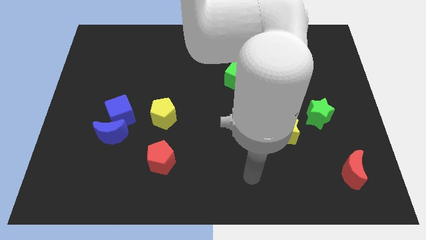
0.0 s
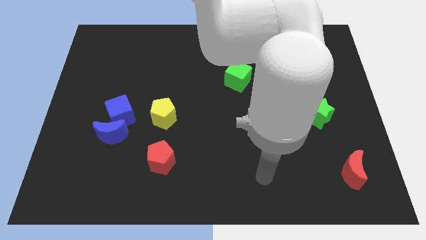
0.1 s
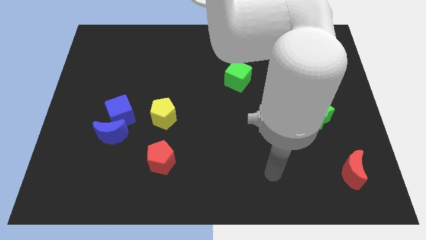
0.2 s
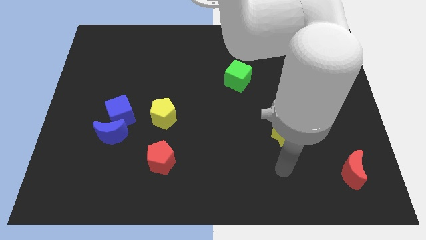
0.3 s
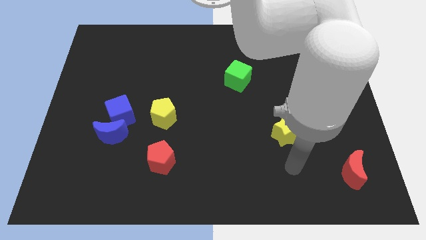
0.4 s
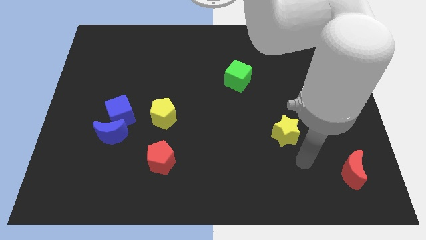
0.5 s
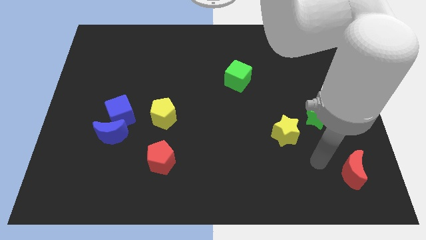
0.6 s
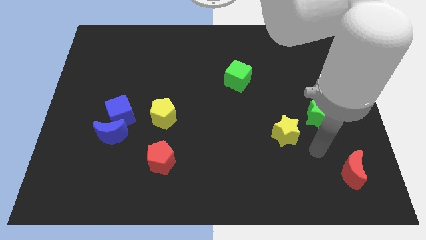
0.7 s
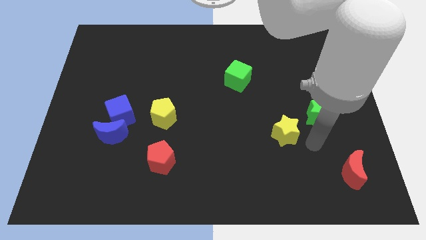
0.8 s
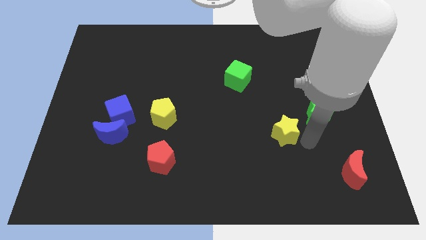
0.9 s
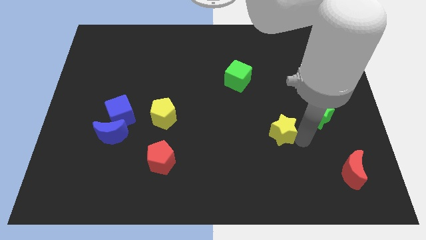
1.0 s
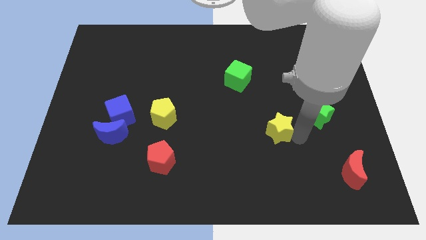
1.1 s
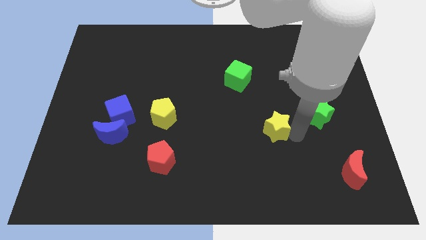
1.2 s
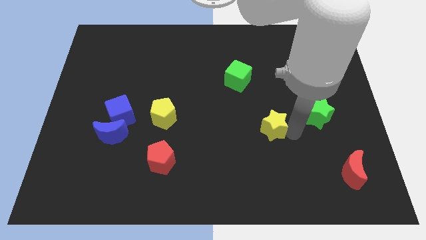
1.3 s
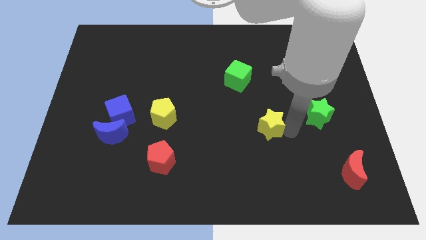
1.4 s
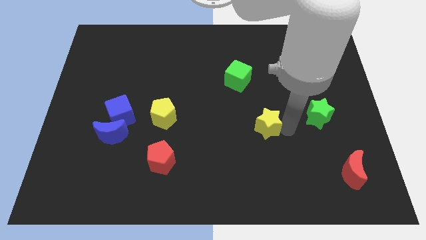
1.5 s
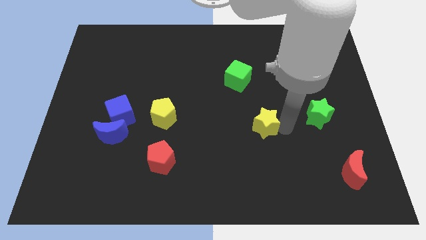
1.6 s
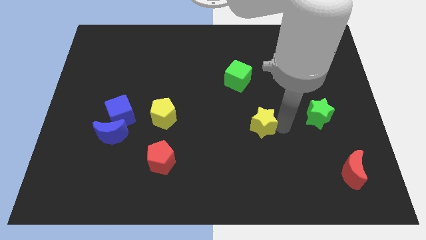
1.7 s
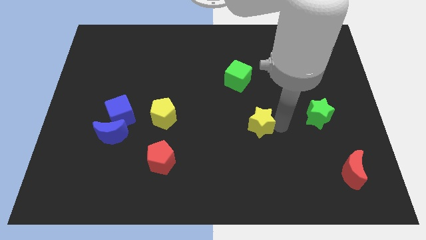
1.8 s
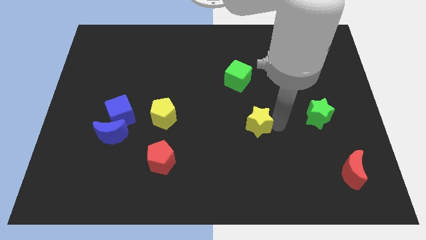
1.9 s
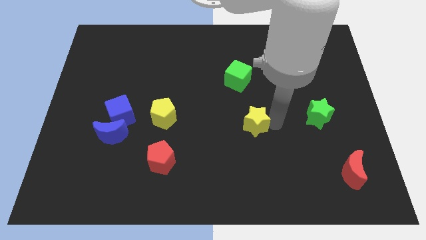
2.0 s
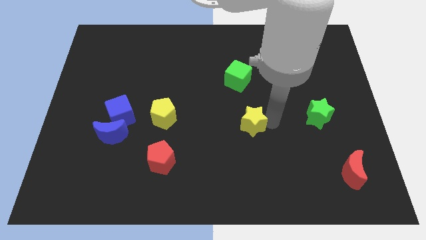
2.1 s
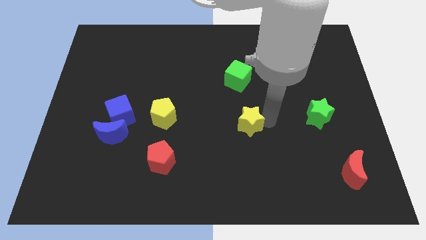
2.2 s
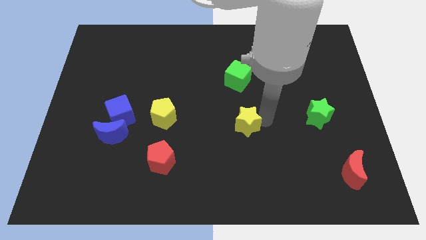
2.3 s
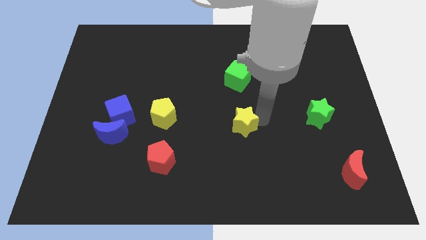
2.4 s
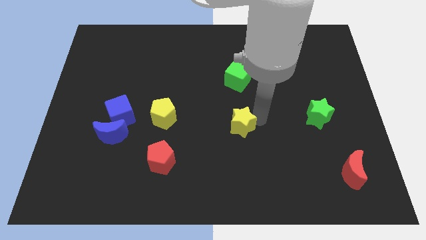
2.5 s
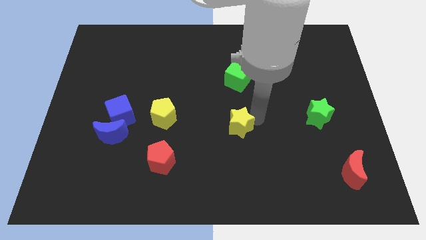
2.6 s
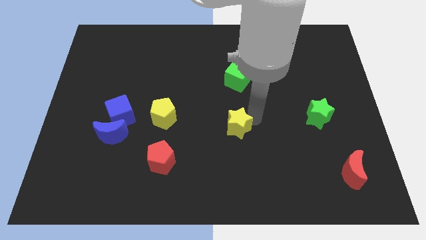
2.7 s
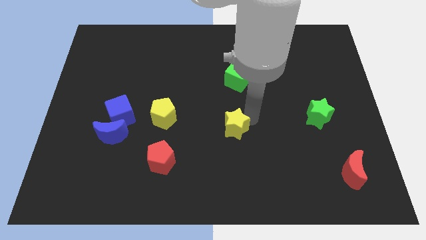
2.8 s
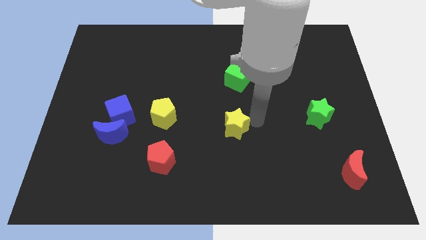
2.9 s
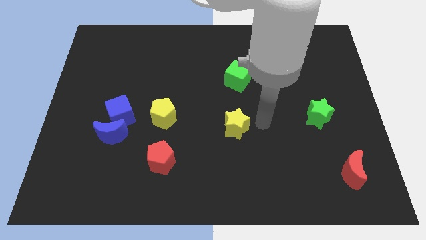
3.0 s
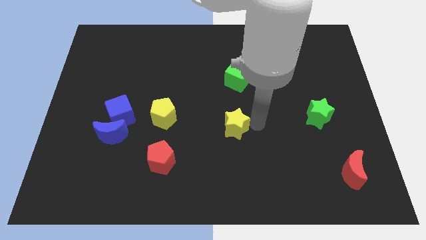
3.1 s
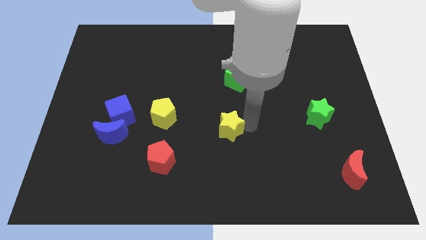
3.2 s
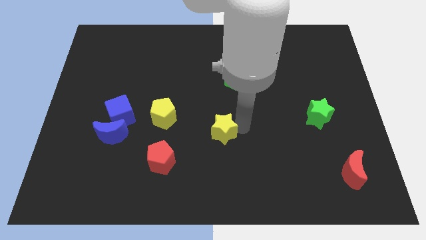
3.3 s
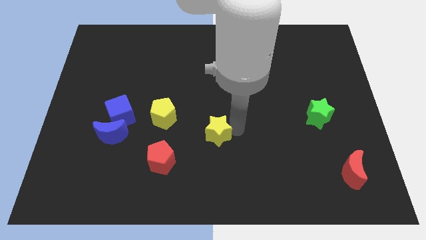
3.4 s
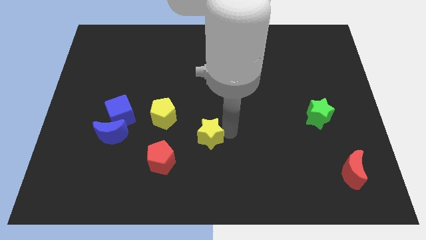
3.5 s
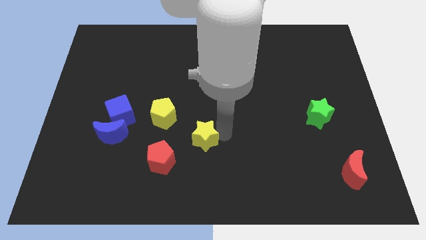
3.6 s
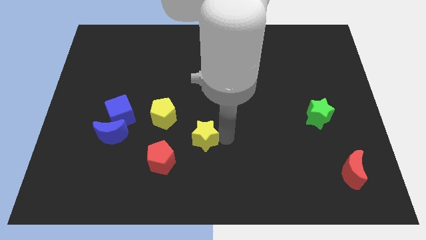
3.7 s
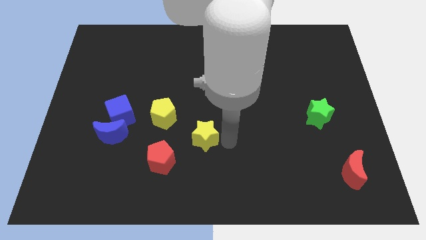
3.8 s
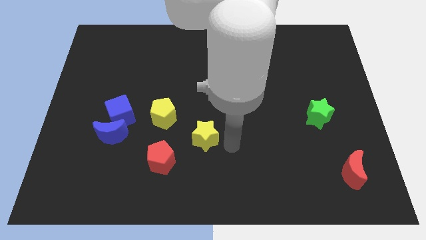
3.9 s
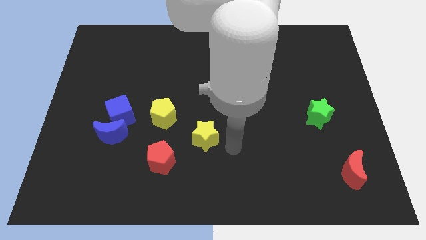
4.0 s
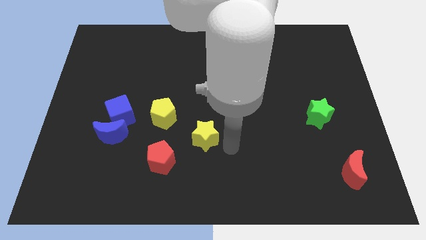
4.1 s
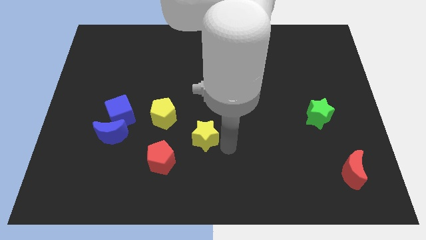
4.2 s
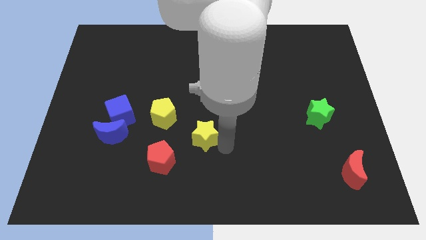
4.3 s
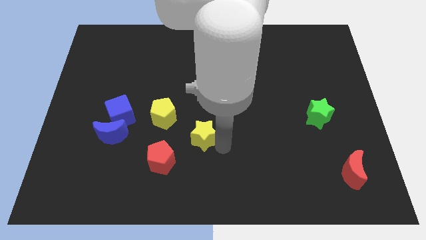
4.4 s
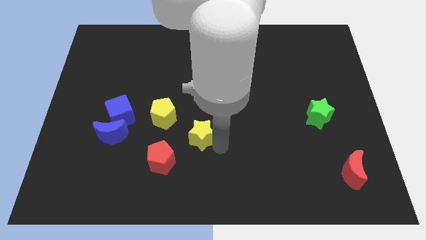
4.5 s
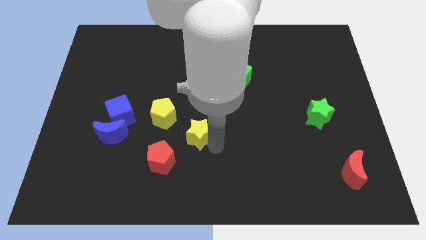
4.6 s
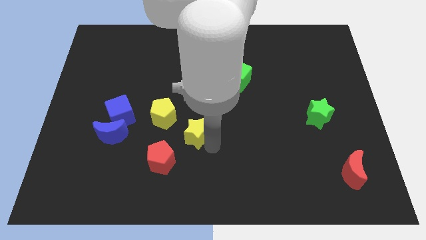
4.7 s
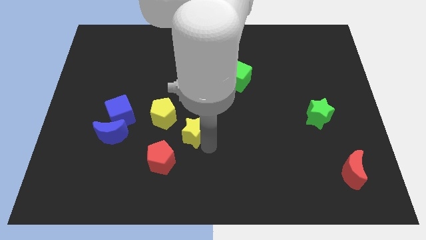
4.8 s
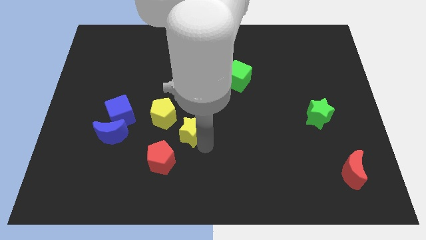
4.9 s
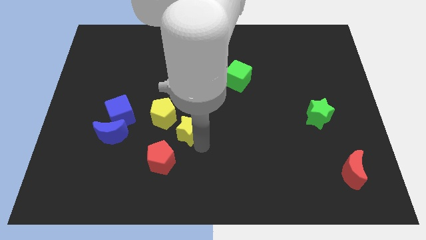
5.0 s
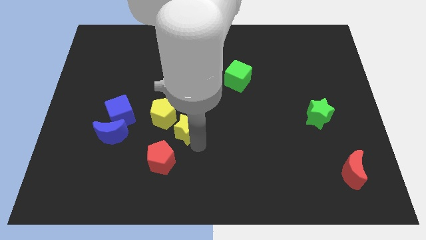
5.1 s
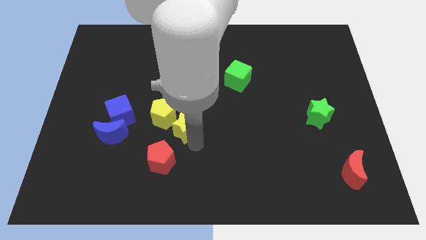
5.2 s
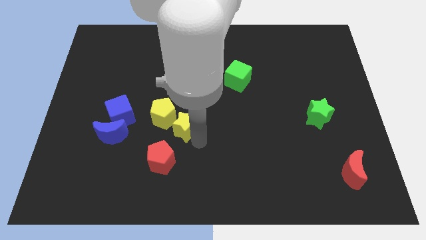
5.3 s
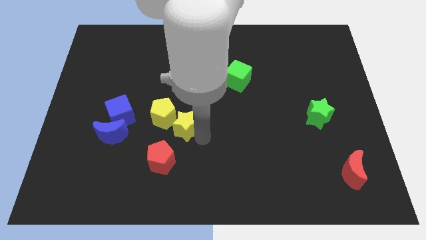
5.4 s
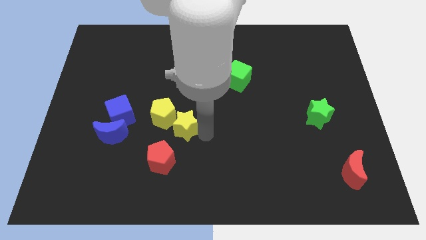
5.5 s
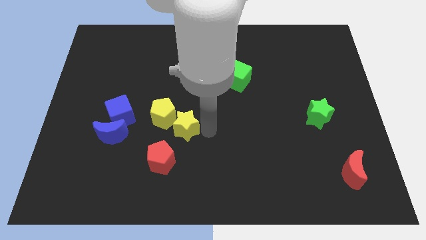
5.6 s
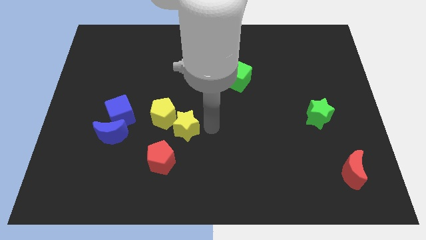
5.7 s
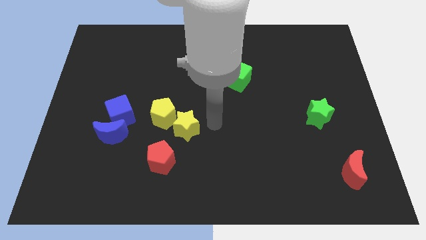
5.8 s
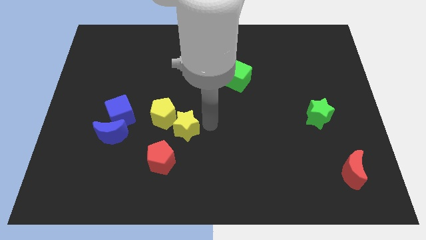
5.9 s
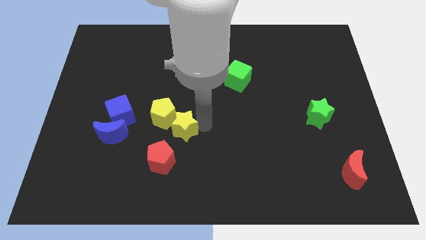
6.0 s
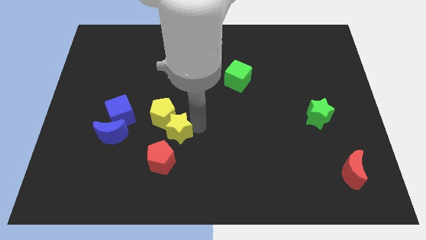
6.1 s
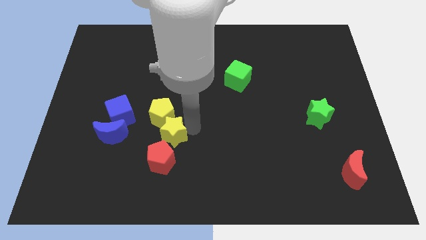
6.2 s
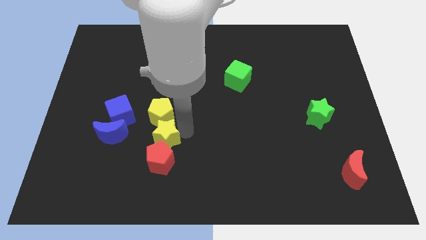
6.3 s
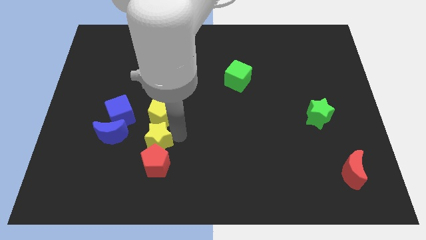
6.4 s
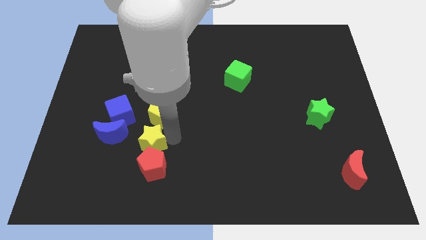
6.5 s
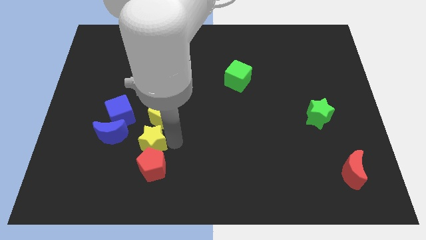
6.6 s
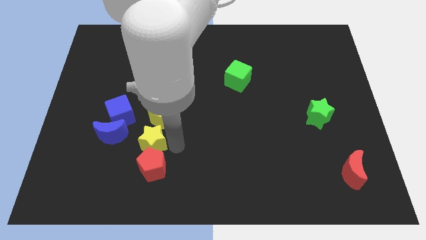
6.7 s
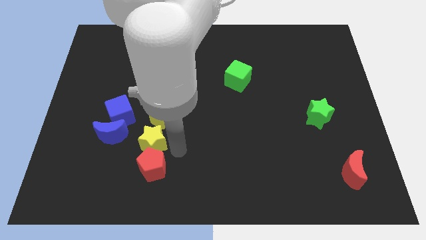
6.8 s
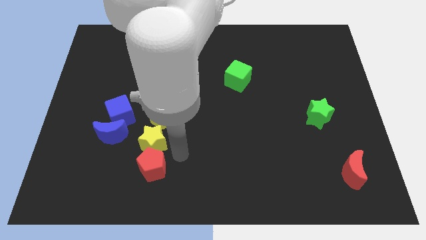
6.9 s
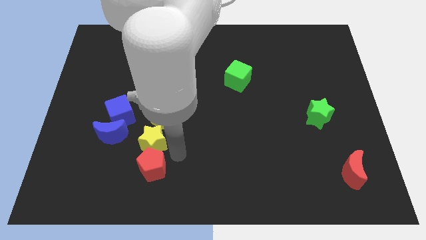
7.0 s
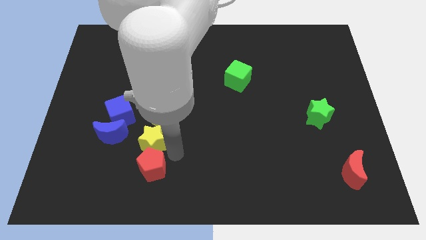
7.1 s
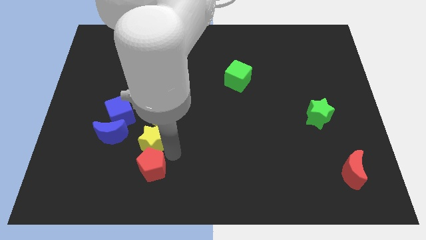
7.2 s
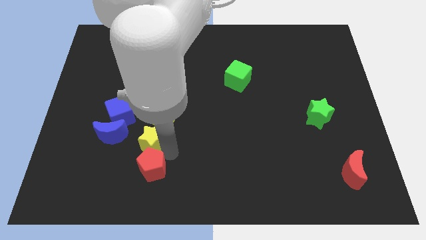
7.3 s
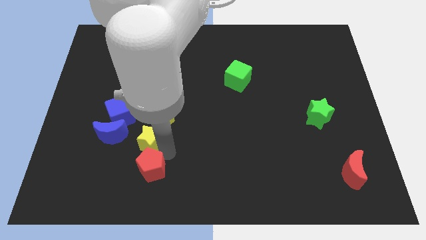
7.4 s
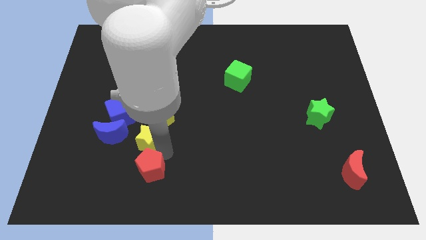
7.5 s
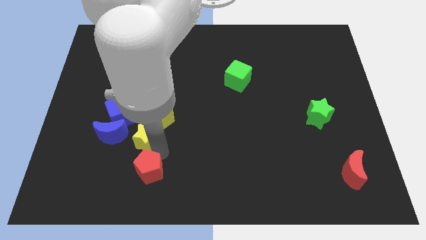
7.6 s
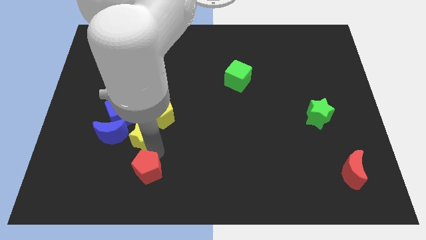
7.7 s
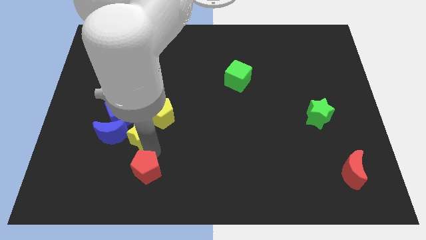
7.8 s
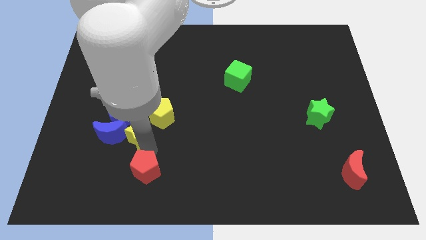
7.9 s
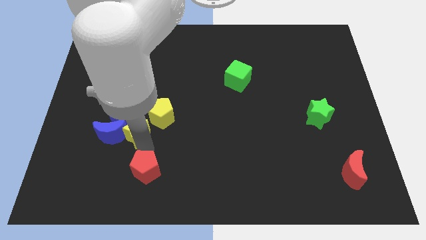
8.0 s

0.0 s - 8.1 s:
move the yellow star towards the blue moon
